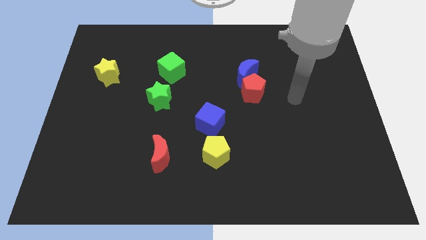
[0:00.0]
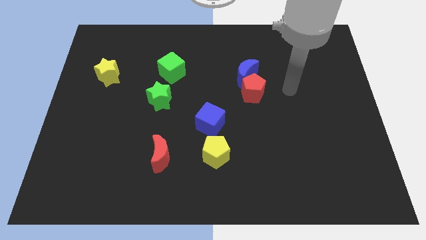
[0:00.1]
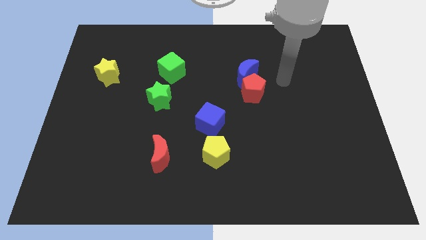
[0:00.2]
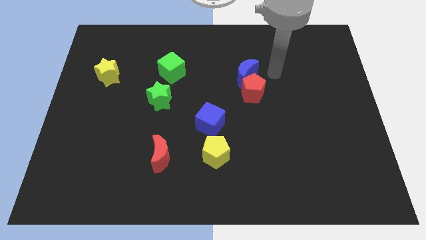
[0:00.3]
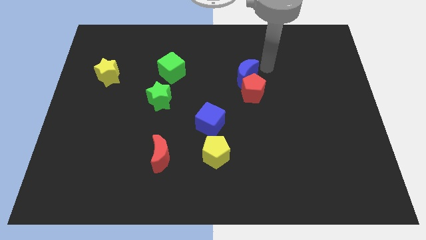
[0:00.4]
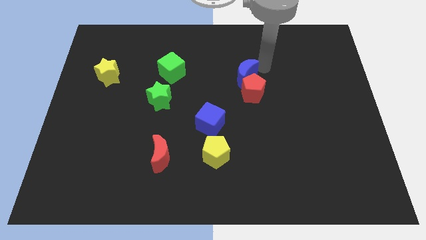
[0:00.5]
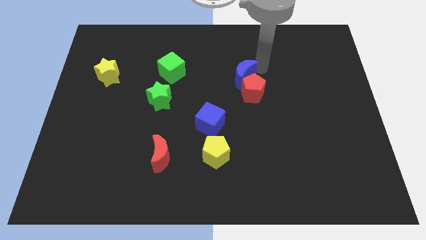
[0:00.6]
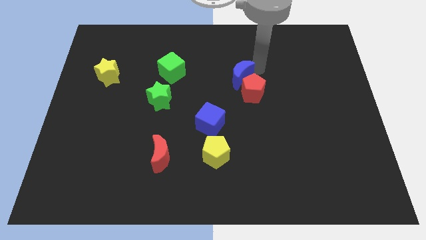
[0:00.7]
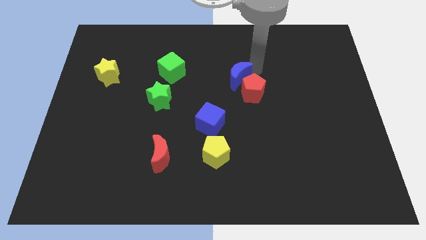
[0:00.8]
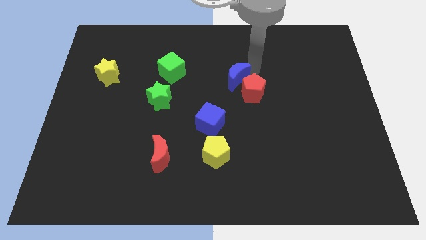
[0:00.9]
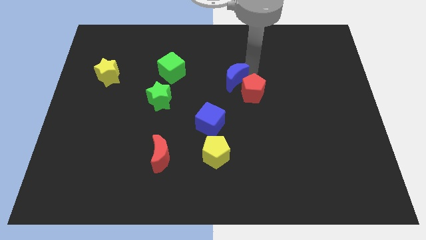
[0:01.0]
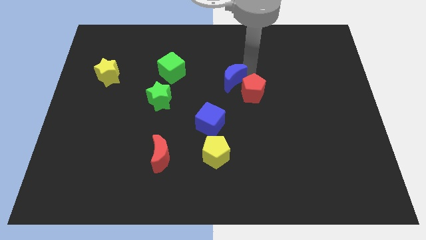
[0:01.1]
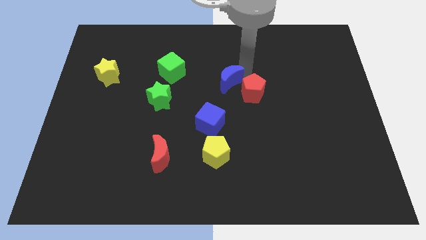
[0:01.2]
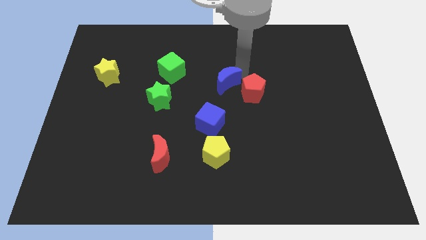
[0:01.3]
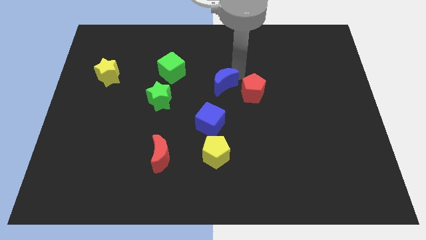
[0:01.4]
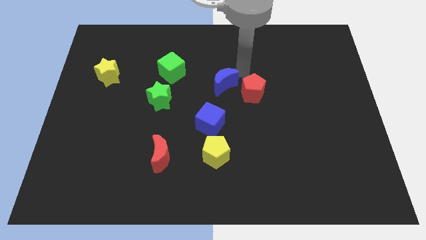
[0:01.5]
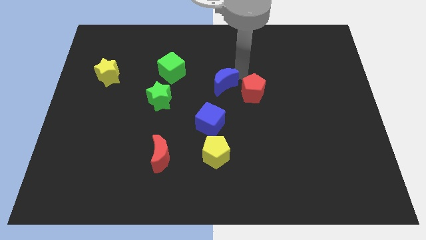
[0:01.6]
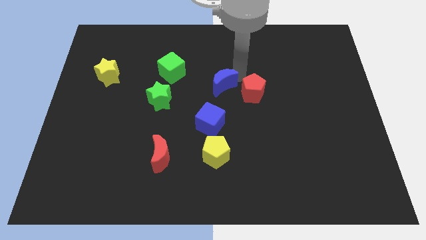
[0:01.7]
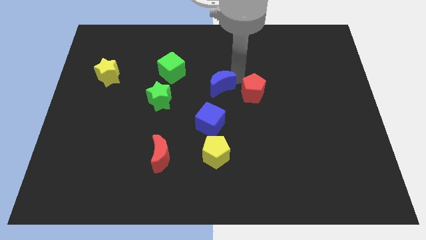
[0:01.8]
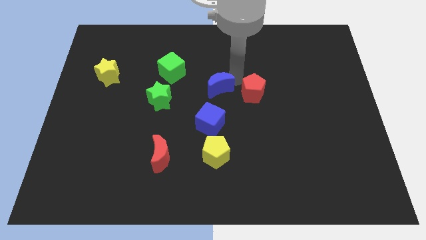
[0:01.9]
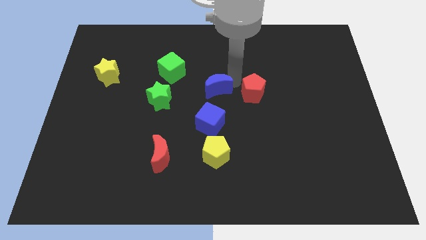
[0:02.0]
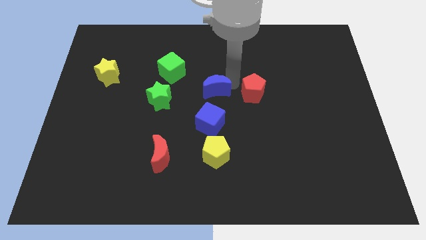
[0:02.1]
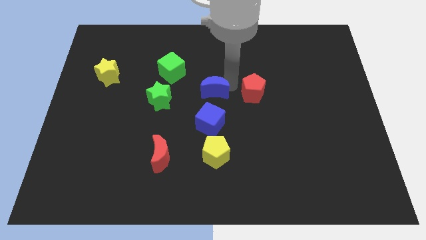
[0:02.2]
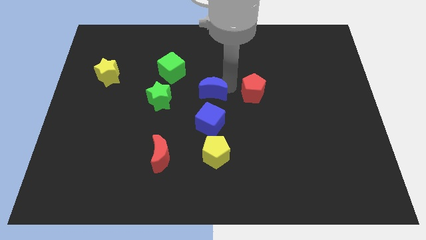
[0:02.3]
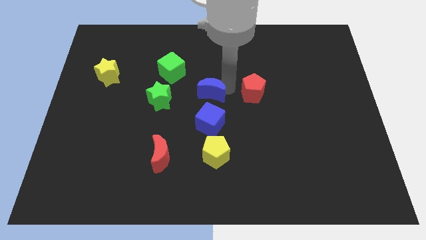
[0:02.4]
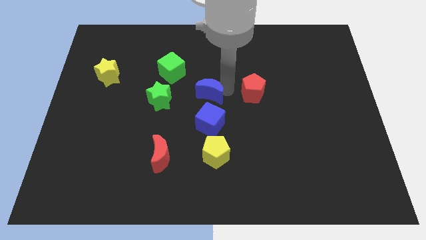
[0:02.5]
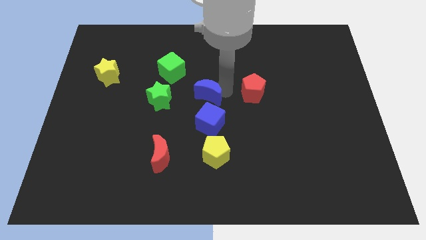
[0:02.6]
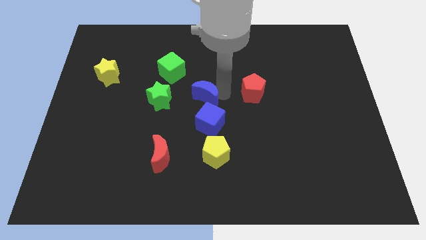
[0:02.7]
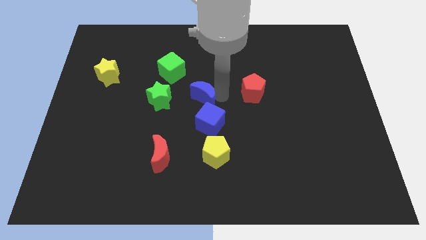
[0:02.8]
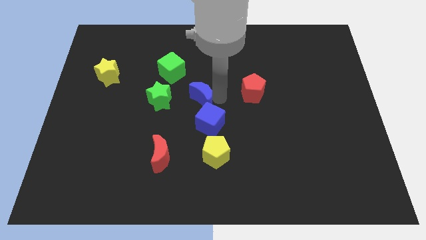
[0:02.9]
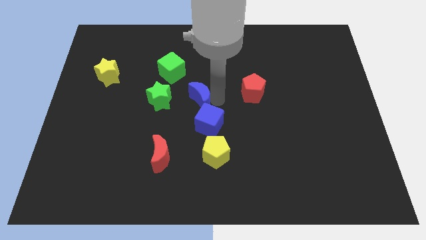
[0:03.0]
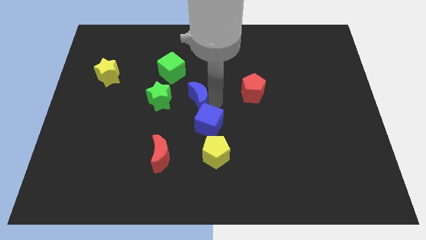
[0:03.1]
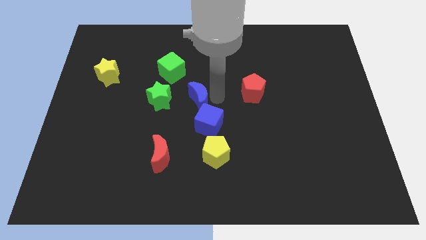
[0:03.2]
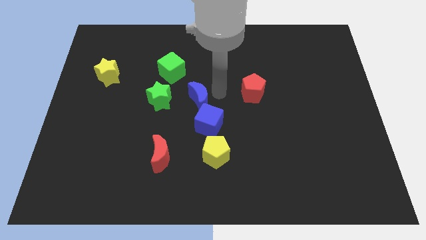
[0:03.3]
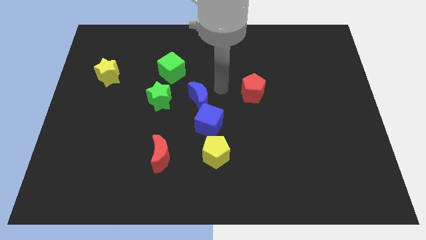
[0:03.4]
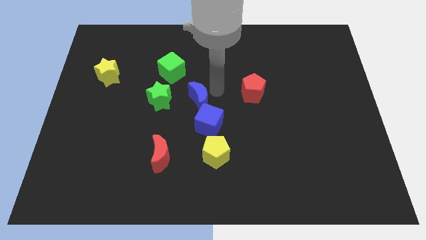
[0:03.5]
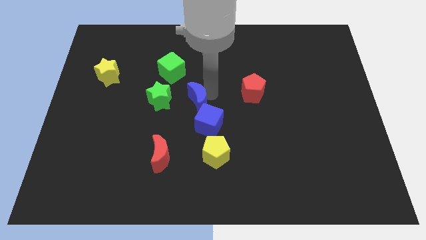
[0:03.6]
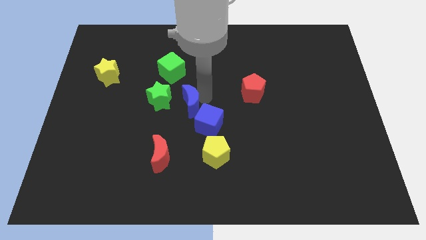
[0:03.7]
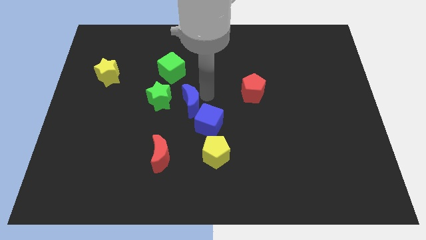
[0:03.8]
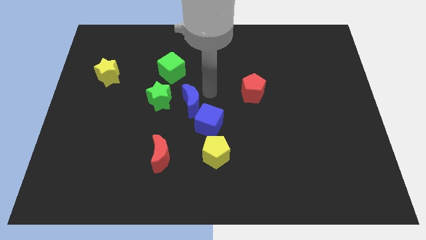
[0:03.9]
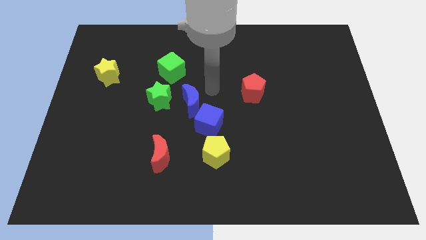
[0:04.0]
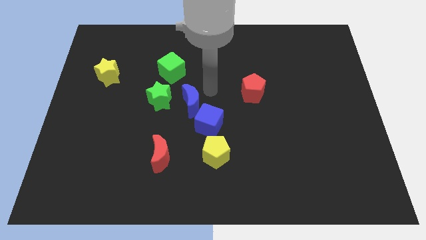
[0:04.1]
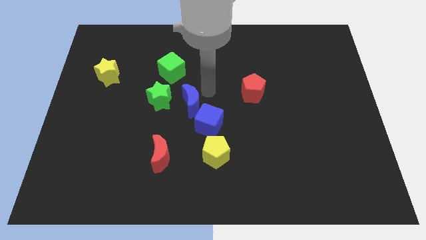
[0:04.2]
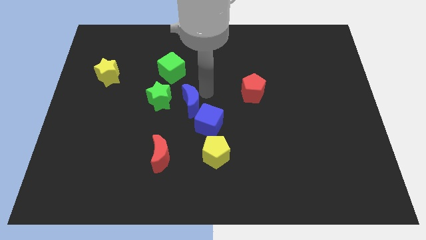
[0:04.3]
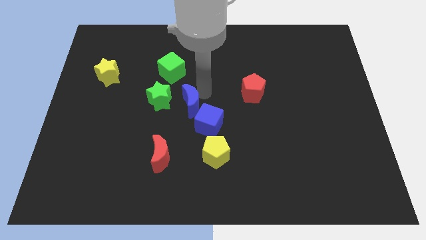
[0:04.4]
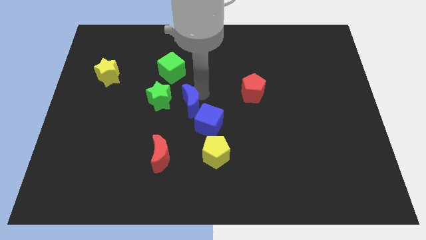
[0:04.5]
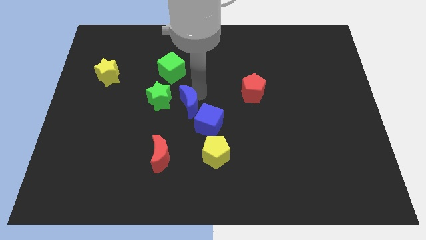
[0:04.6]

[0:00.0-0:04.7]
put the blue moon to the bottom of the green cube

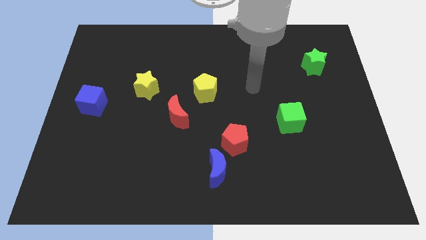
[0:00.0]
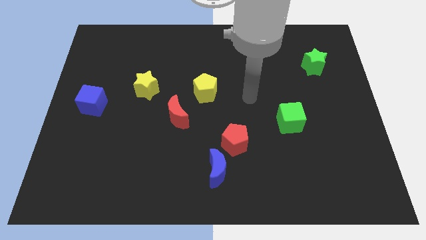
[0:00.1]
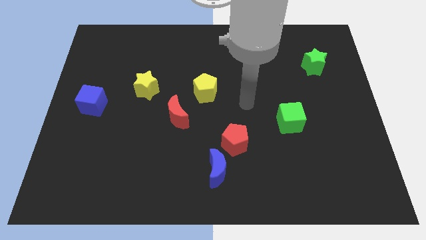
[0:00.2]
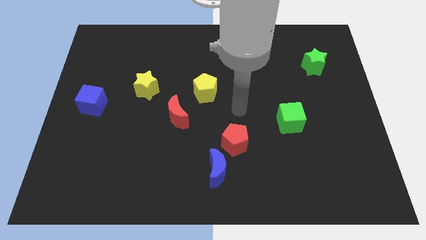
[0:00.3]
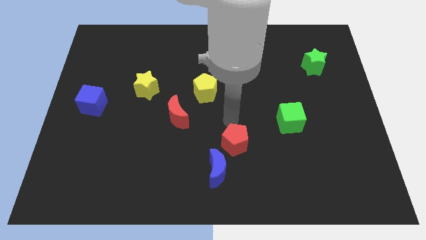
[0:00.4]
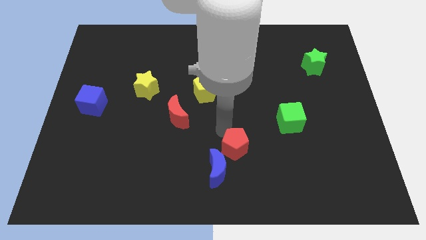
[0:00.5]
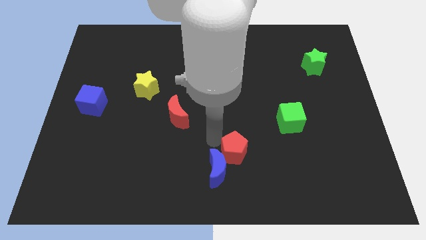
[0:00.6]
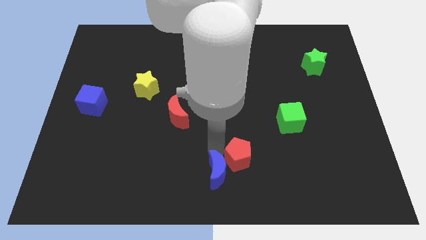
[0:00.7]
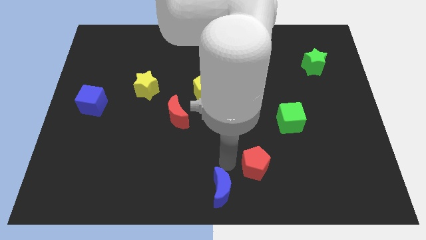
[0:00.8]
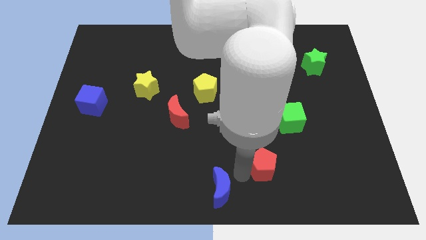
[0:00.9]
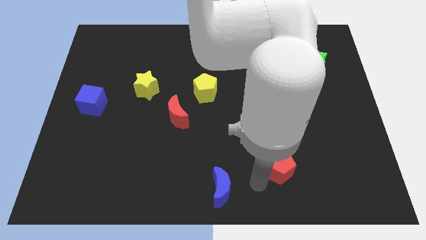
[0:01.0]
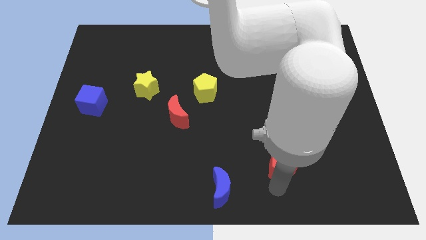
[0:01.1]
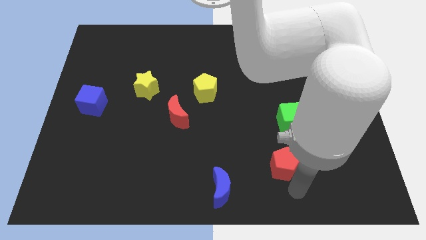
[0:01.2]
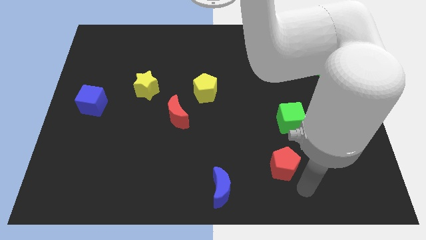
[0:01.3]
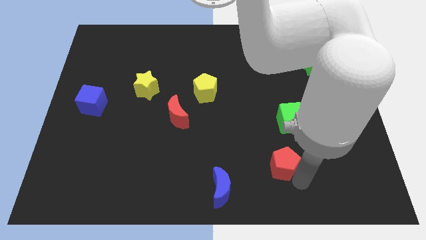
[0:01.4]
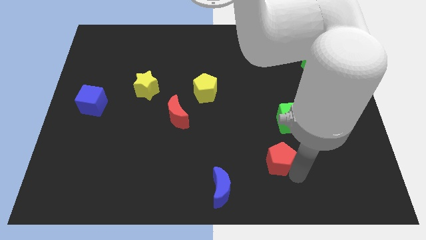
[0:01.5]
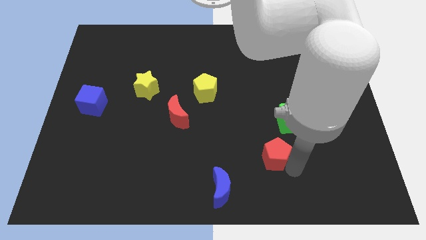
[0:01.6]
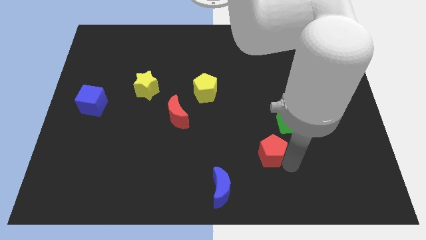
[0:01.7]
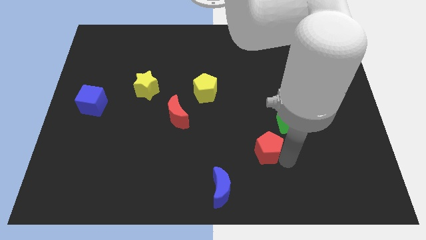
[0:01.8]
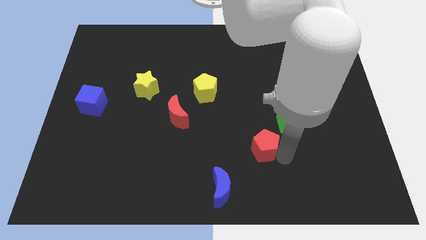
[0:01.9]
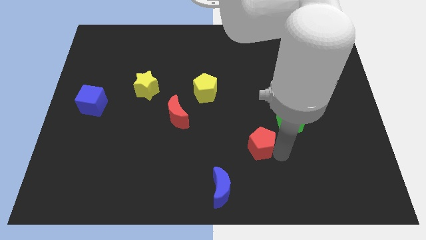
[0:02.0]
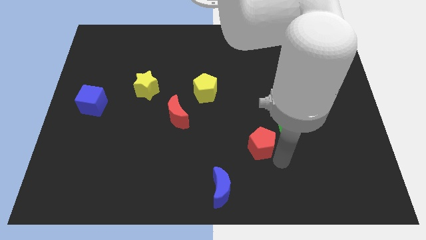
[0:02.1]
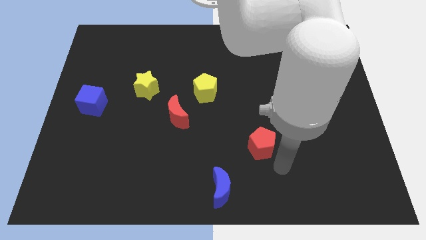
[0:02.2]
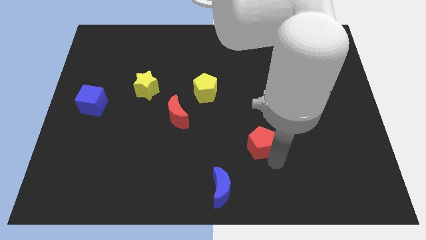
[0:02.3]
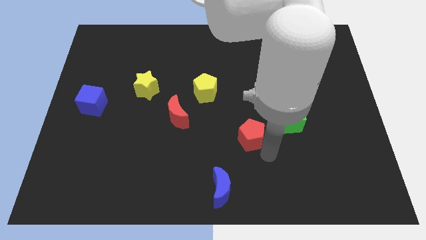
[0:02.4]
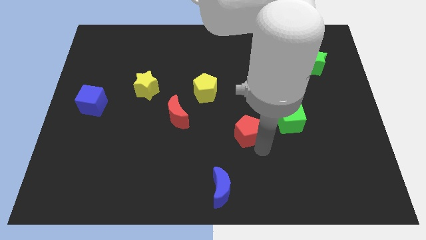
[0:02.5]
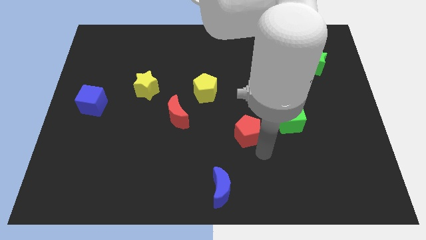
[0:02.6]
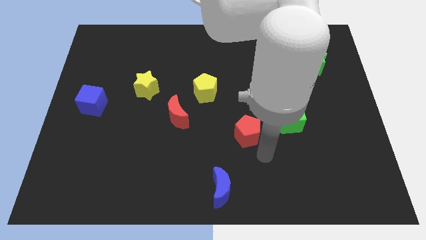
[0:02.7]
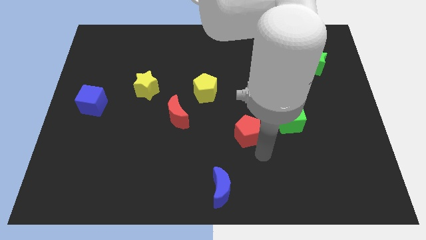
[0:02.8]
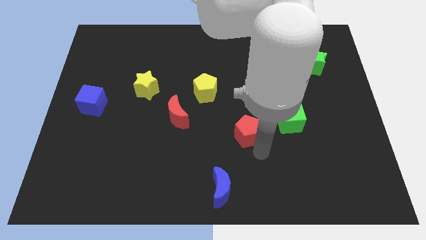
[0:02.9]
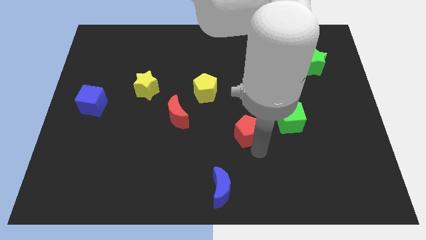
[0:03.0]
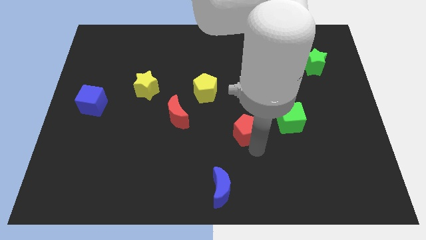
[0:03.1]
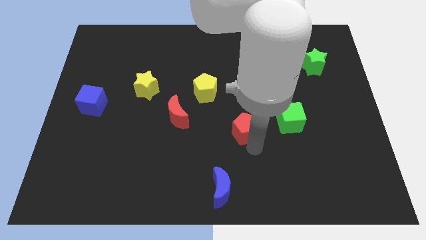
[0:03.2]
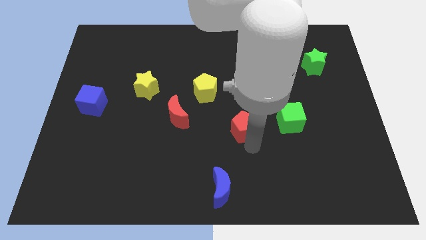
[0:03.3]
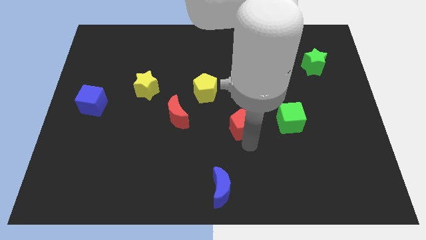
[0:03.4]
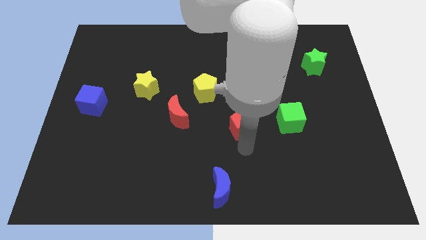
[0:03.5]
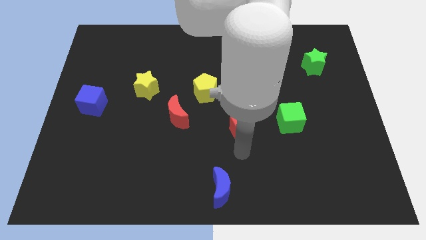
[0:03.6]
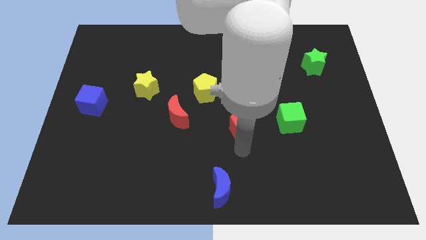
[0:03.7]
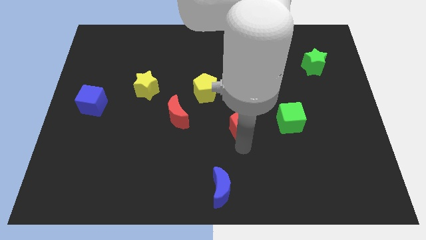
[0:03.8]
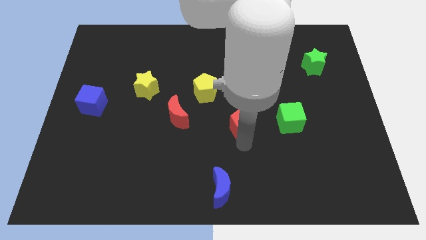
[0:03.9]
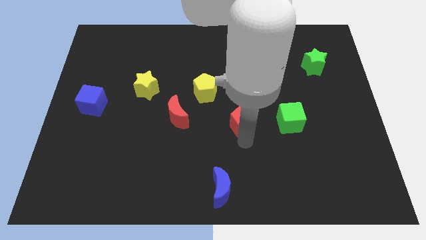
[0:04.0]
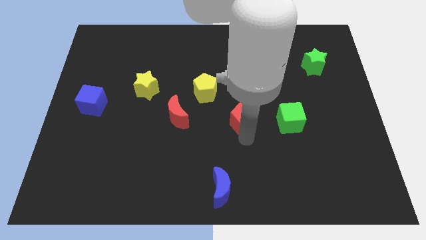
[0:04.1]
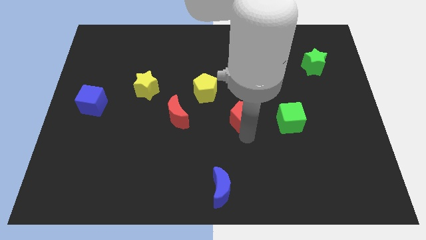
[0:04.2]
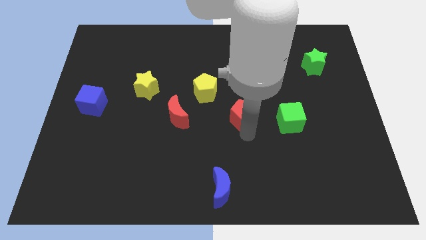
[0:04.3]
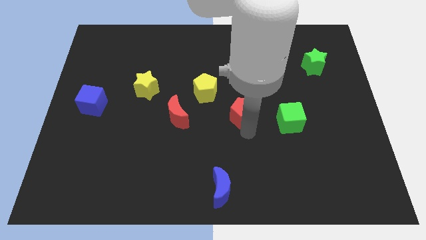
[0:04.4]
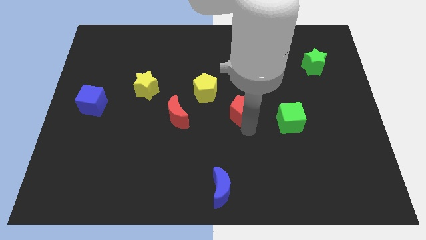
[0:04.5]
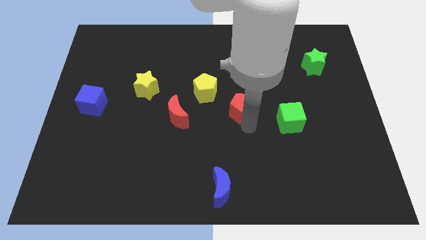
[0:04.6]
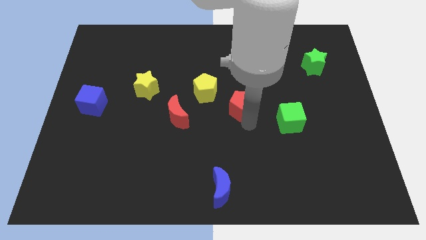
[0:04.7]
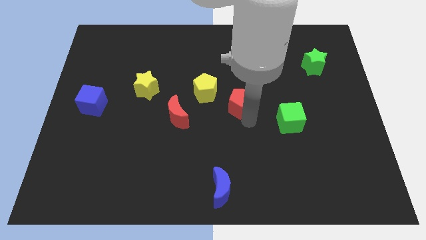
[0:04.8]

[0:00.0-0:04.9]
push the red pentagon to the right side of the yellow pentagon
